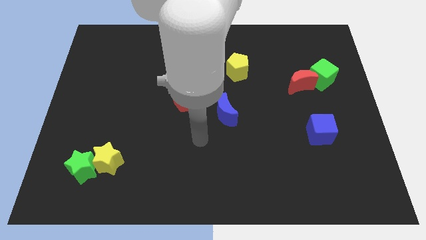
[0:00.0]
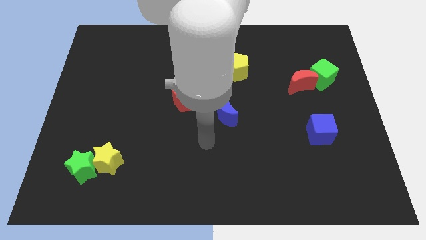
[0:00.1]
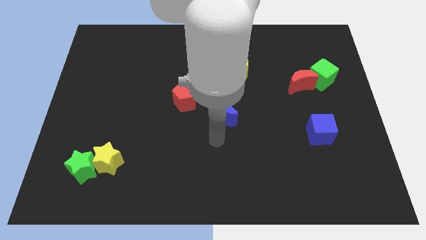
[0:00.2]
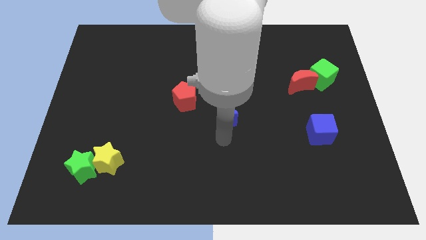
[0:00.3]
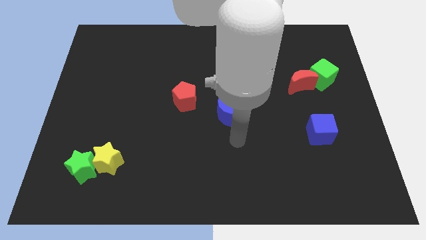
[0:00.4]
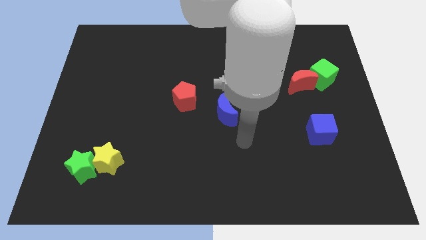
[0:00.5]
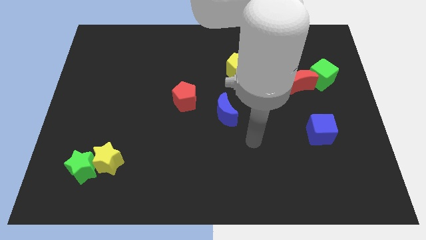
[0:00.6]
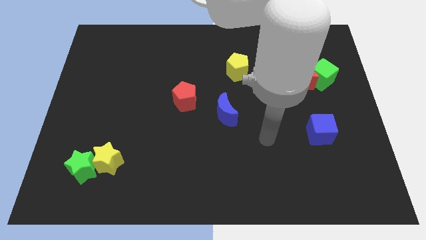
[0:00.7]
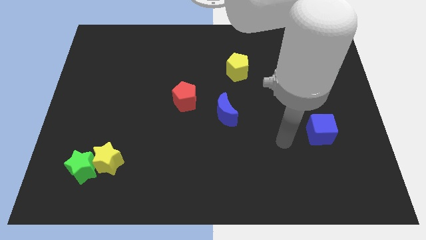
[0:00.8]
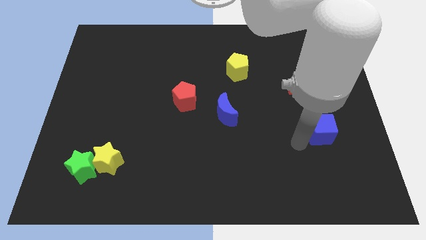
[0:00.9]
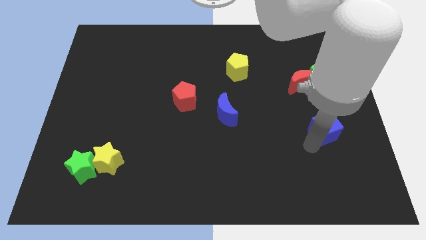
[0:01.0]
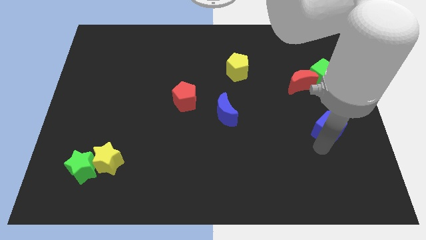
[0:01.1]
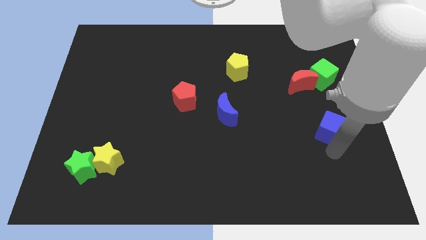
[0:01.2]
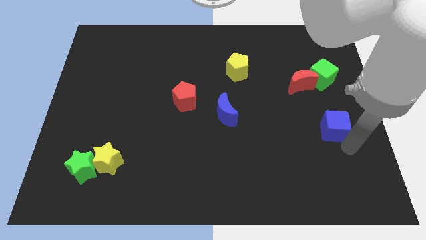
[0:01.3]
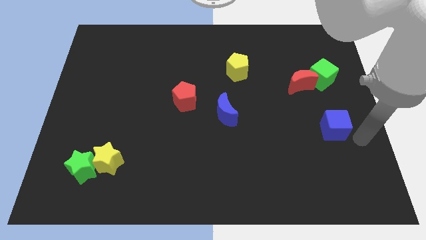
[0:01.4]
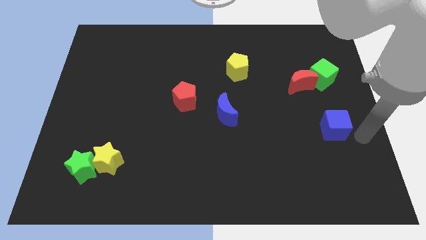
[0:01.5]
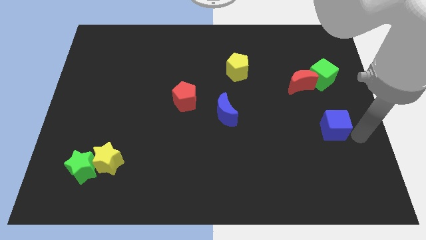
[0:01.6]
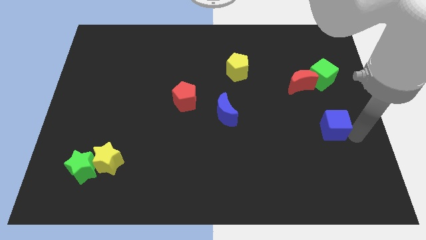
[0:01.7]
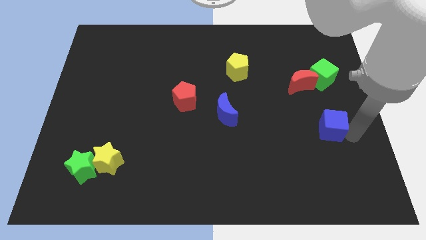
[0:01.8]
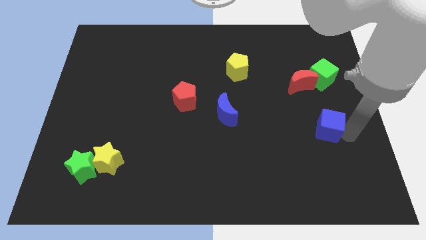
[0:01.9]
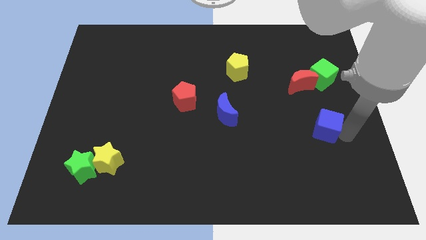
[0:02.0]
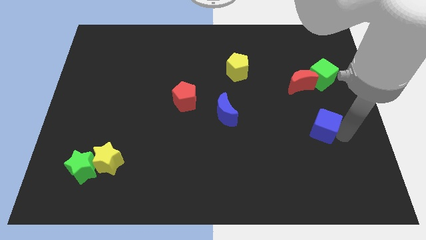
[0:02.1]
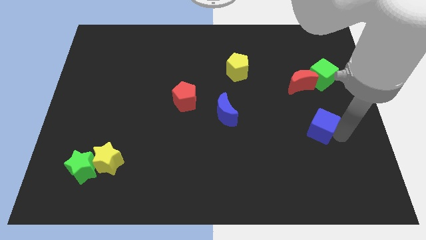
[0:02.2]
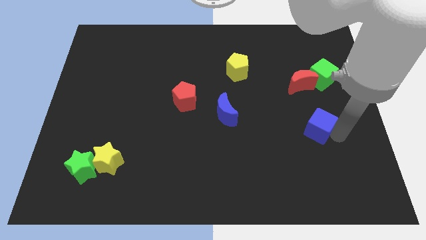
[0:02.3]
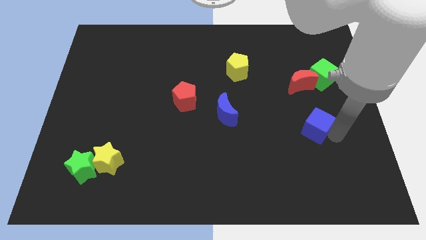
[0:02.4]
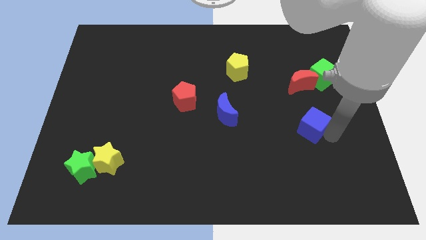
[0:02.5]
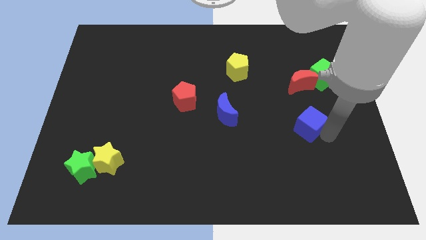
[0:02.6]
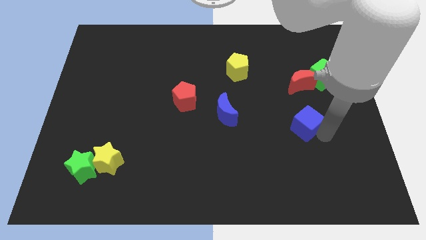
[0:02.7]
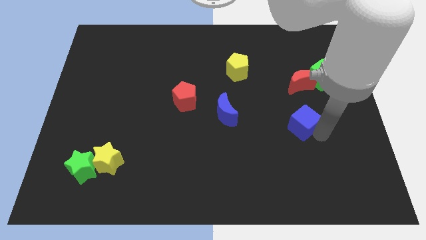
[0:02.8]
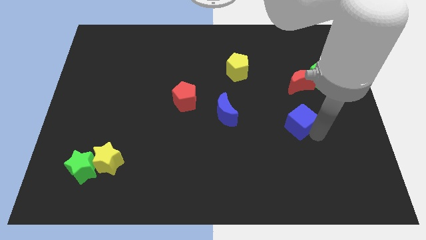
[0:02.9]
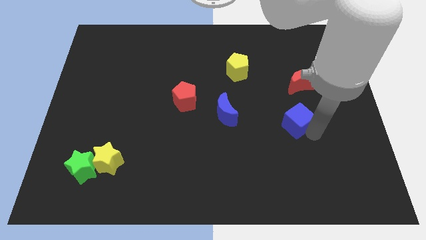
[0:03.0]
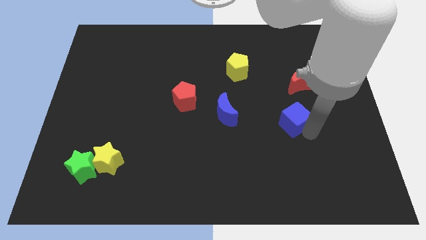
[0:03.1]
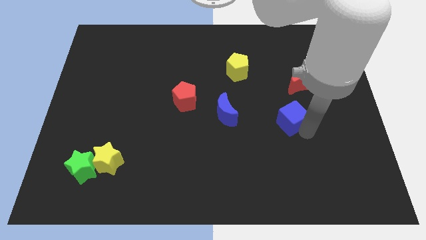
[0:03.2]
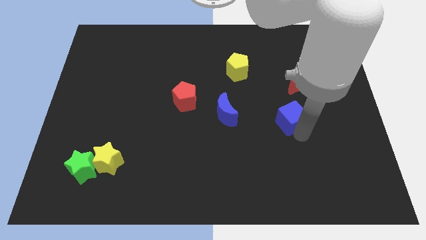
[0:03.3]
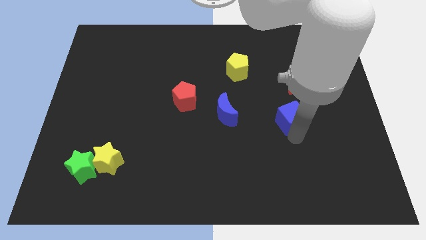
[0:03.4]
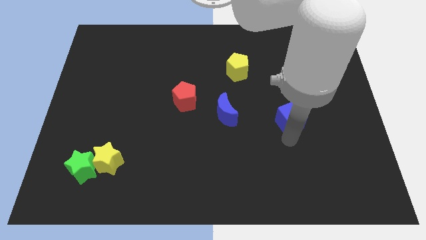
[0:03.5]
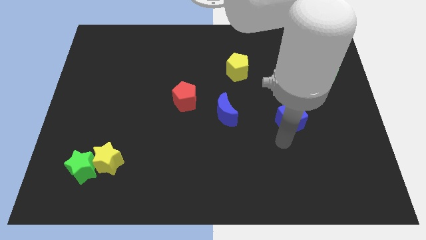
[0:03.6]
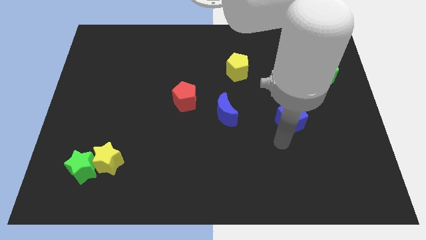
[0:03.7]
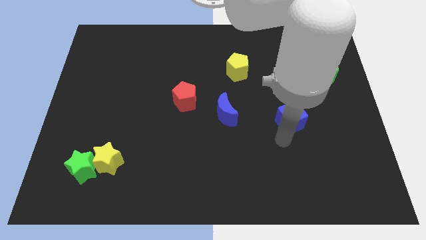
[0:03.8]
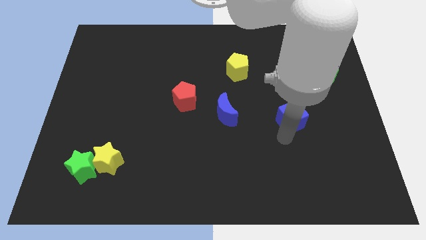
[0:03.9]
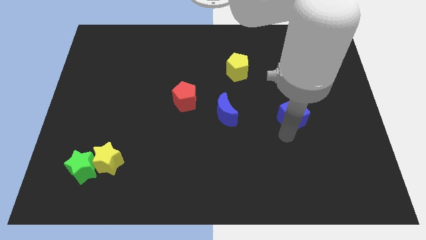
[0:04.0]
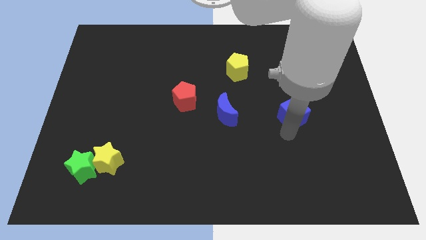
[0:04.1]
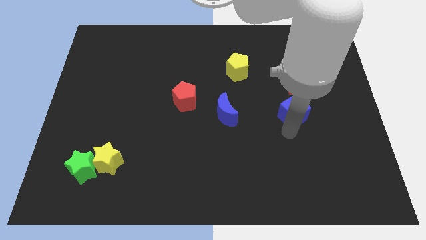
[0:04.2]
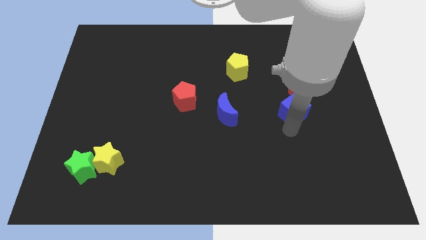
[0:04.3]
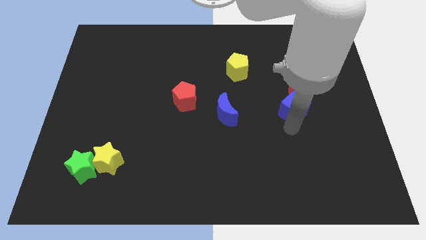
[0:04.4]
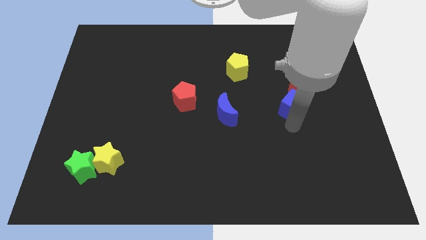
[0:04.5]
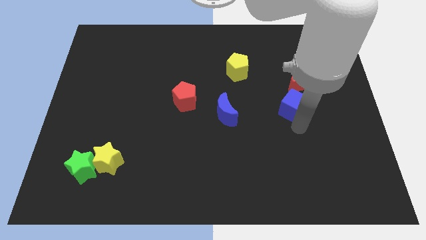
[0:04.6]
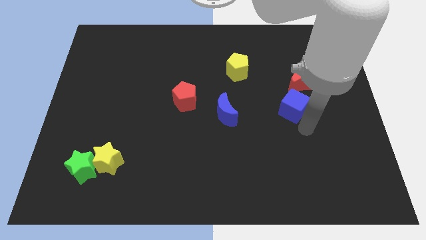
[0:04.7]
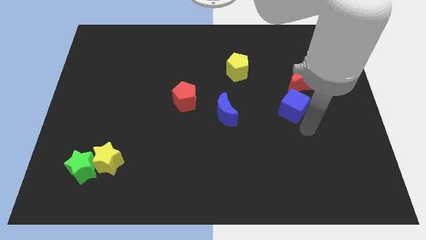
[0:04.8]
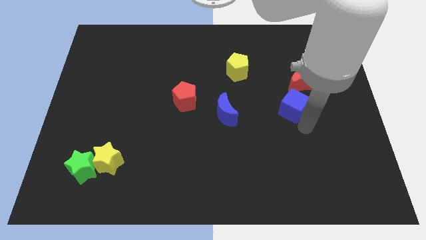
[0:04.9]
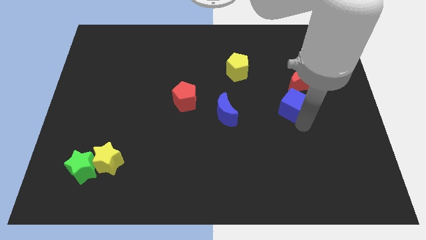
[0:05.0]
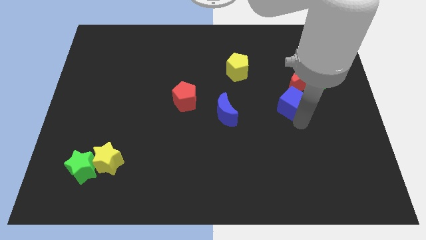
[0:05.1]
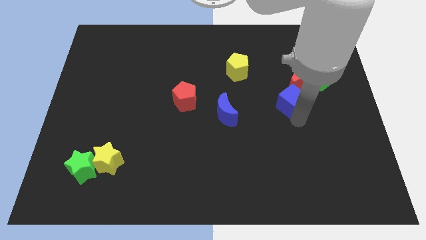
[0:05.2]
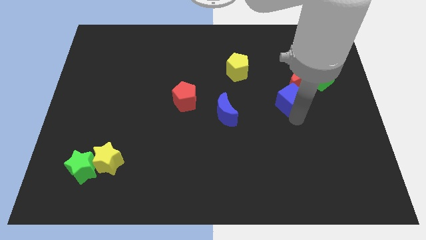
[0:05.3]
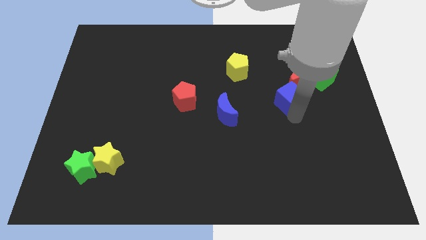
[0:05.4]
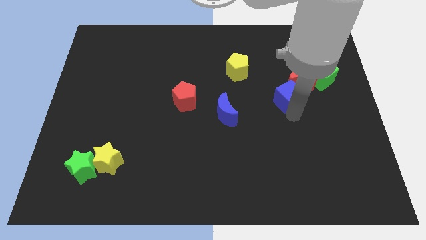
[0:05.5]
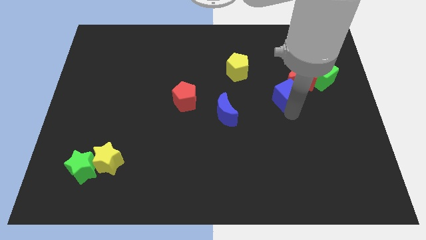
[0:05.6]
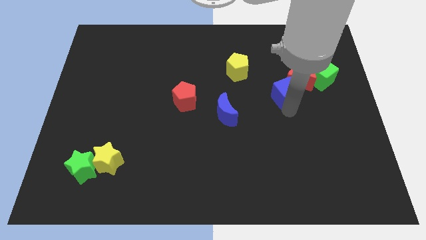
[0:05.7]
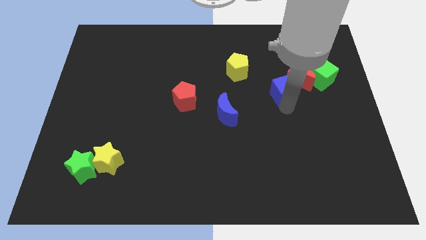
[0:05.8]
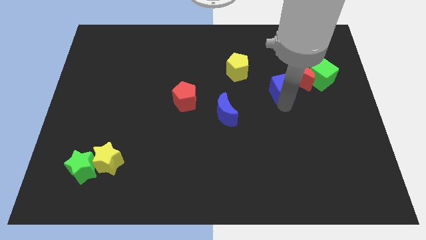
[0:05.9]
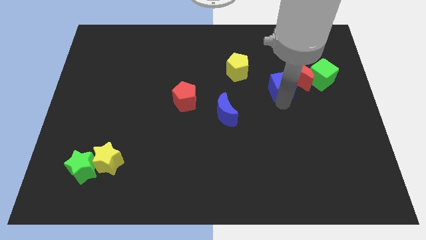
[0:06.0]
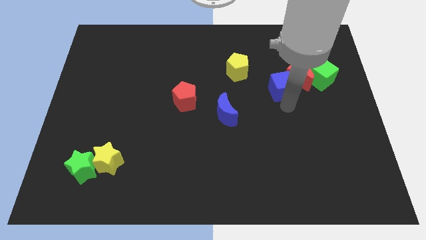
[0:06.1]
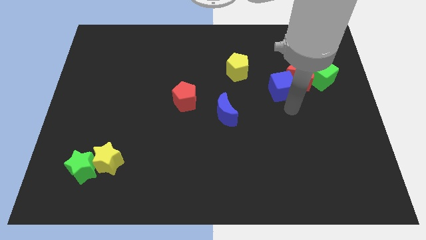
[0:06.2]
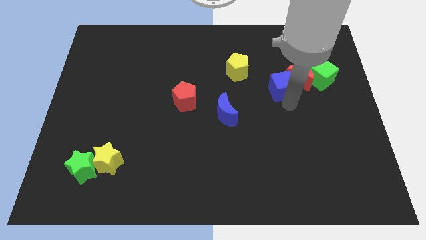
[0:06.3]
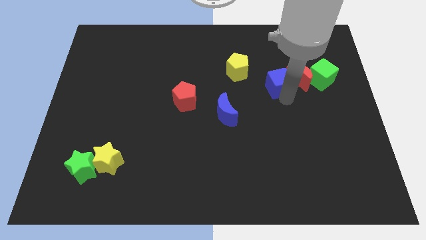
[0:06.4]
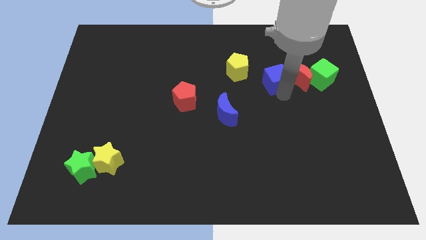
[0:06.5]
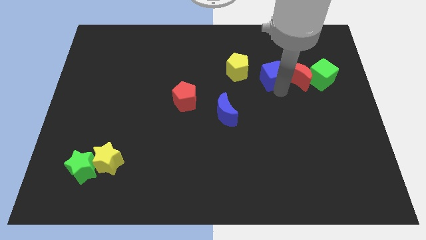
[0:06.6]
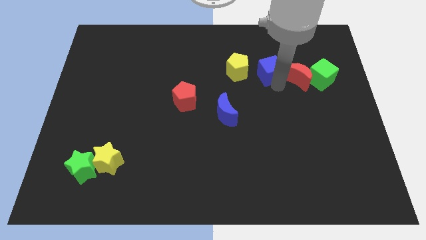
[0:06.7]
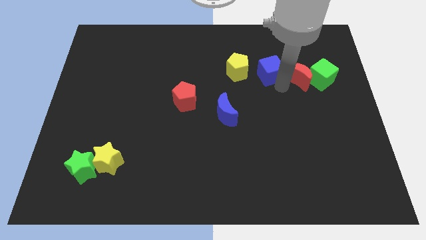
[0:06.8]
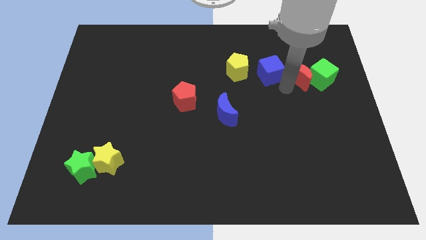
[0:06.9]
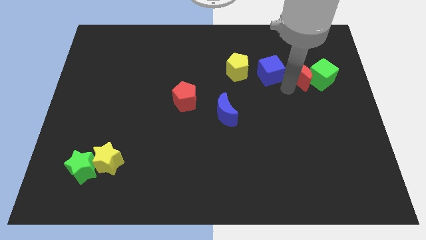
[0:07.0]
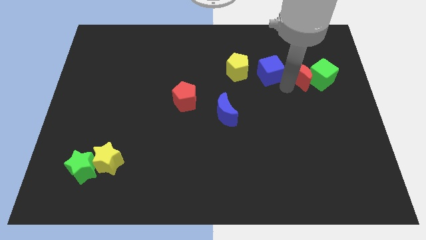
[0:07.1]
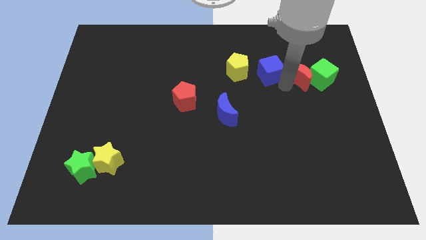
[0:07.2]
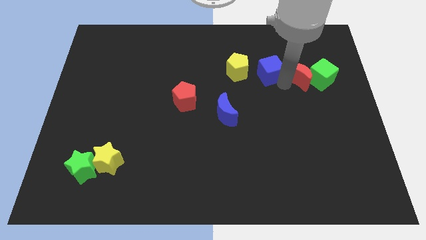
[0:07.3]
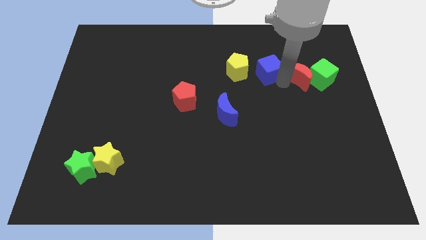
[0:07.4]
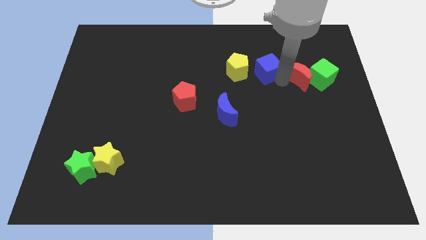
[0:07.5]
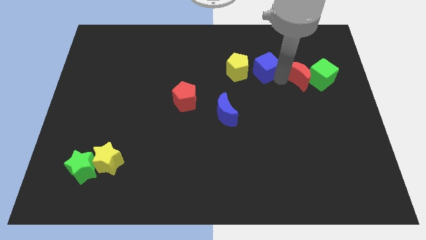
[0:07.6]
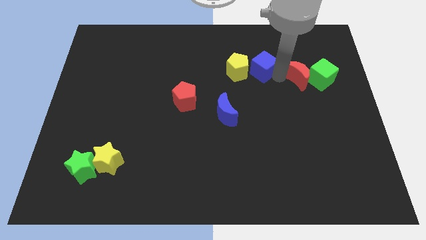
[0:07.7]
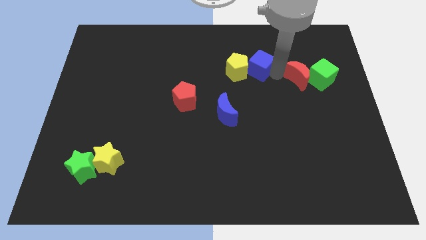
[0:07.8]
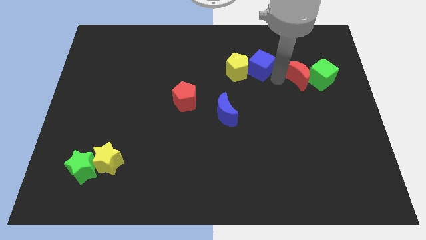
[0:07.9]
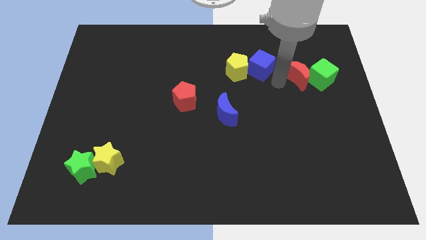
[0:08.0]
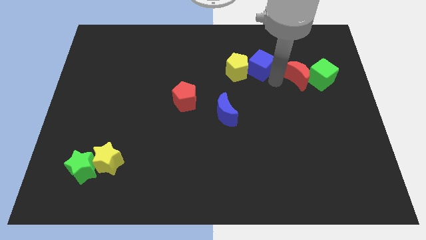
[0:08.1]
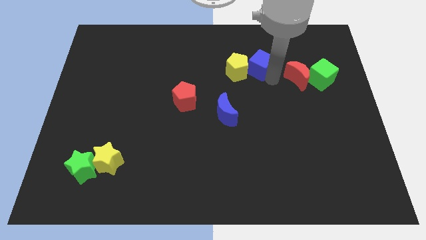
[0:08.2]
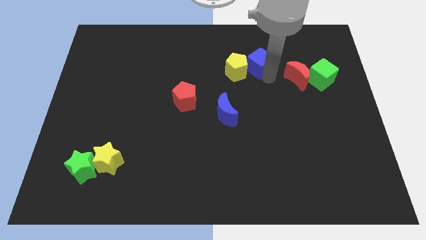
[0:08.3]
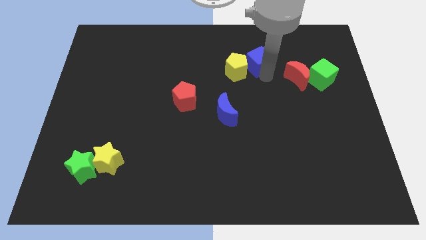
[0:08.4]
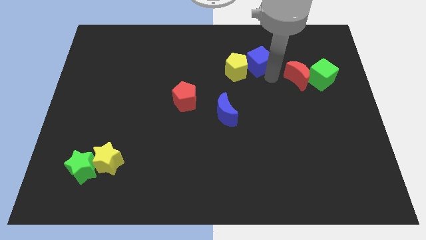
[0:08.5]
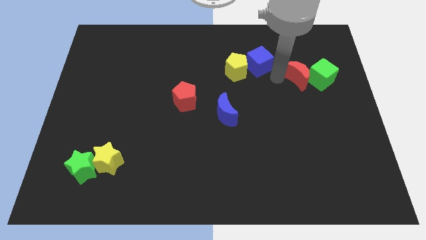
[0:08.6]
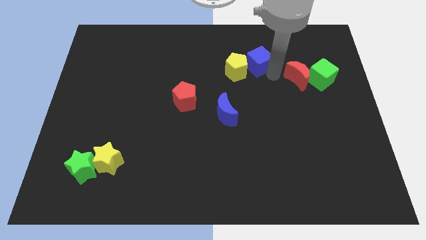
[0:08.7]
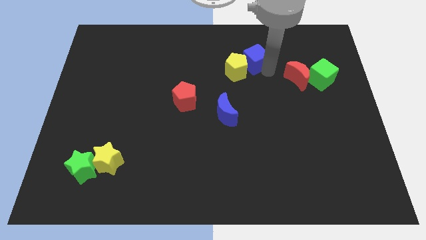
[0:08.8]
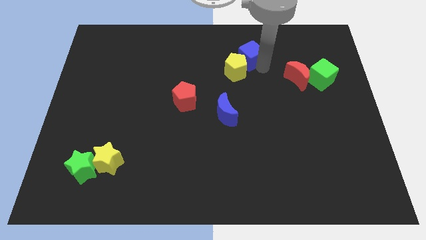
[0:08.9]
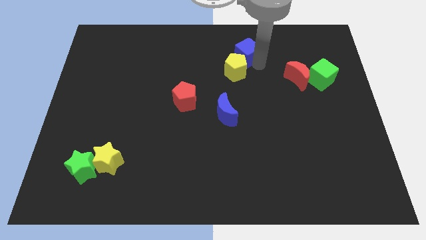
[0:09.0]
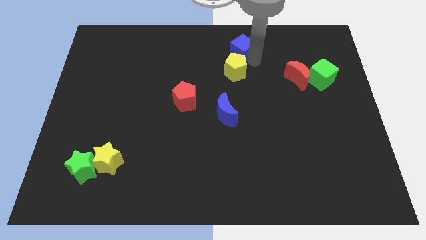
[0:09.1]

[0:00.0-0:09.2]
put the blue cube to the towards your base
